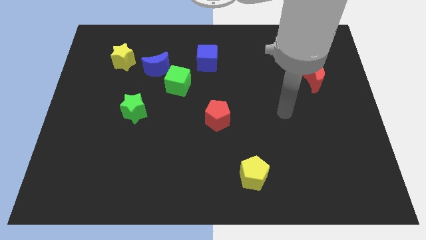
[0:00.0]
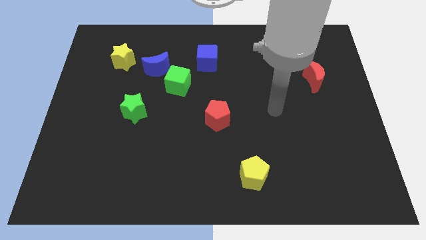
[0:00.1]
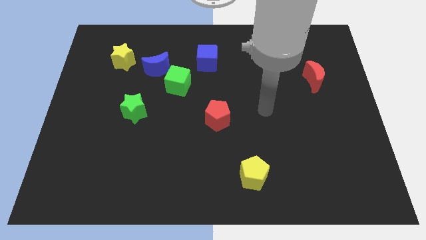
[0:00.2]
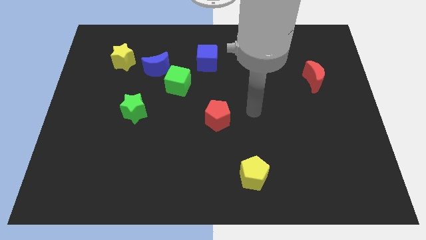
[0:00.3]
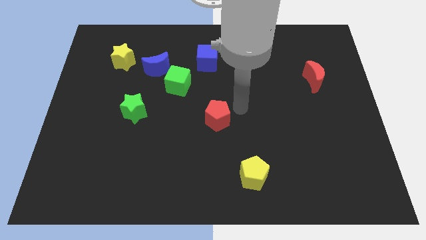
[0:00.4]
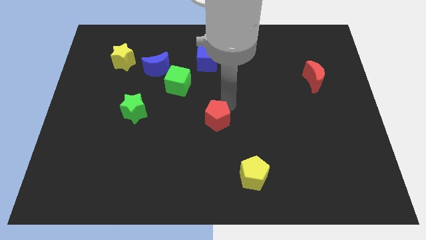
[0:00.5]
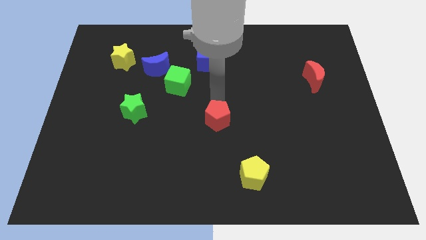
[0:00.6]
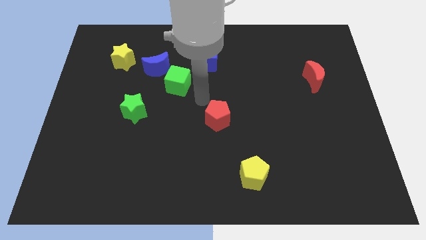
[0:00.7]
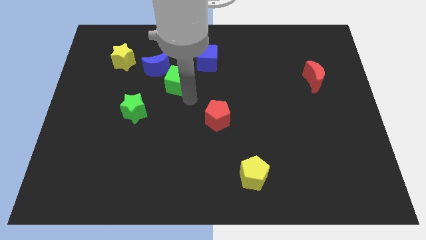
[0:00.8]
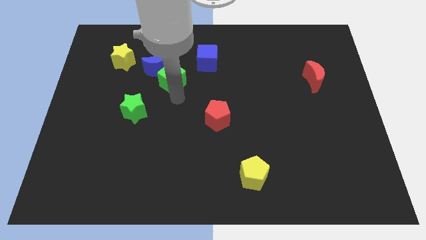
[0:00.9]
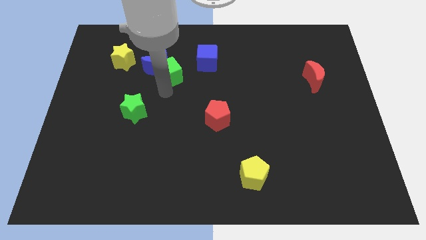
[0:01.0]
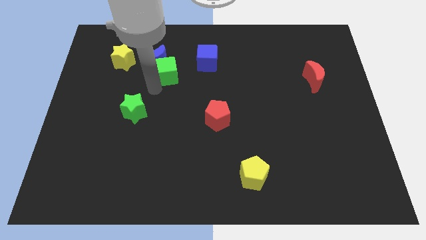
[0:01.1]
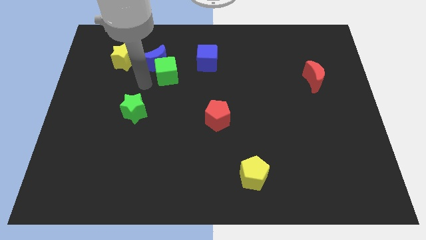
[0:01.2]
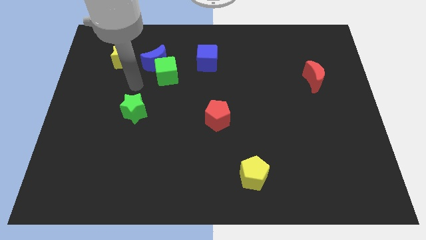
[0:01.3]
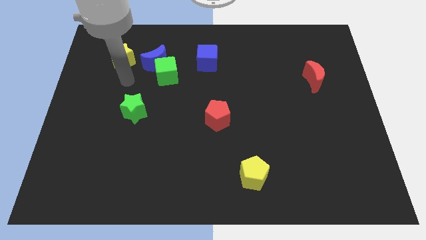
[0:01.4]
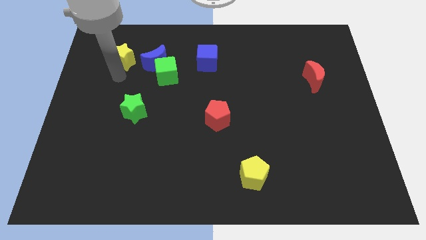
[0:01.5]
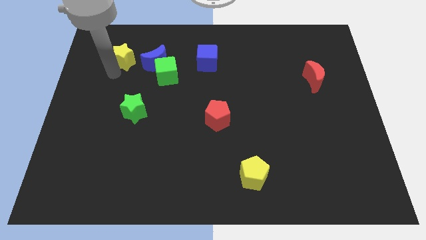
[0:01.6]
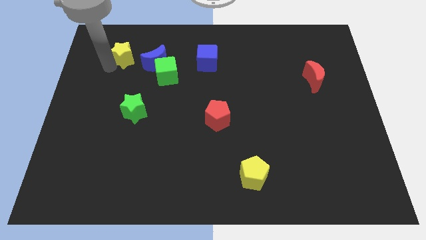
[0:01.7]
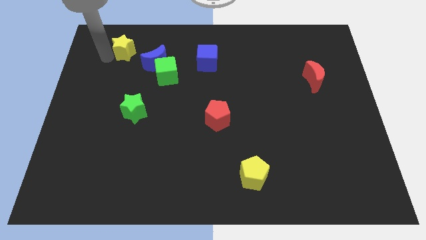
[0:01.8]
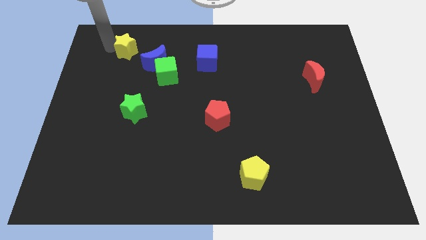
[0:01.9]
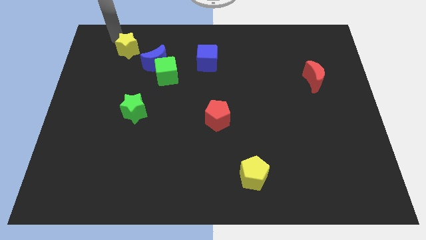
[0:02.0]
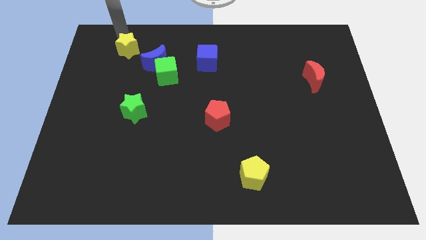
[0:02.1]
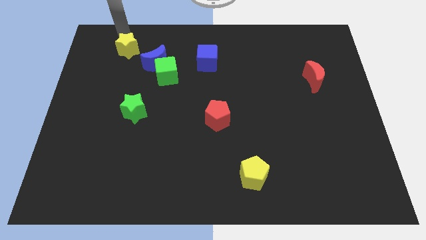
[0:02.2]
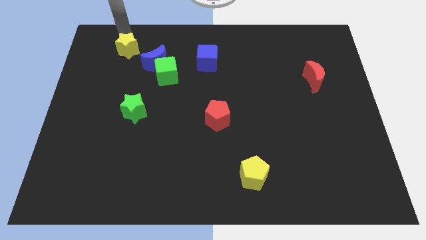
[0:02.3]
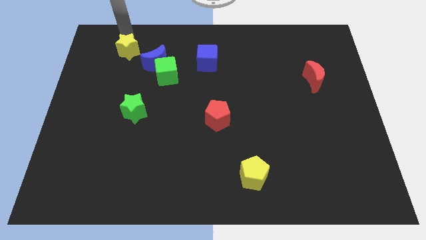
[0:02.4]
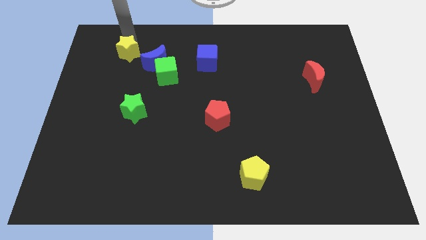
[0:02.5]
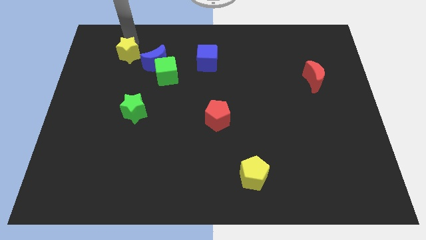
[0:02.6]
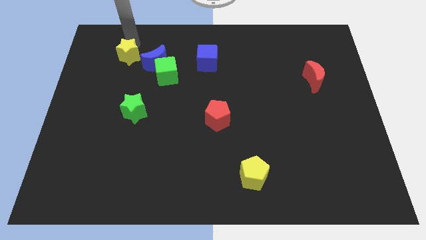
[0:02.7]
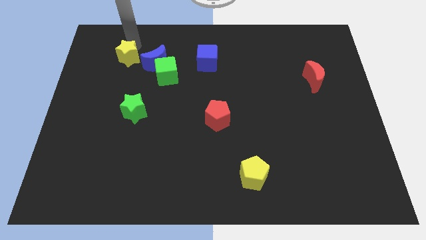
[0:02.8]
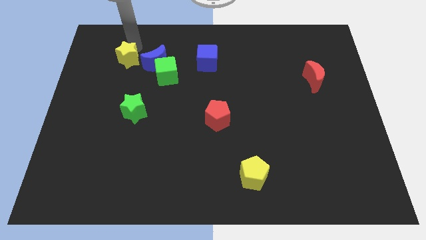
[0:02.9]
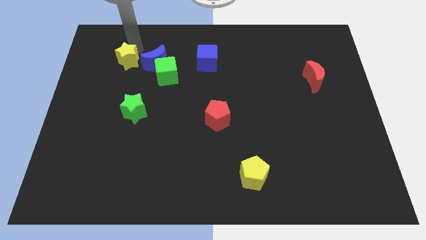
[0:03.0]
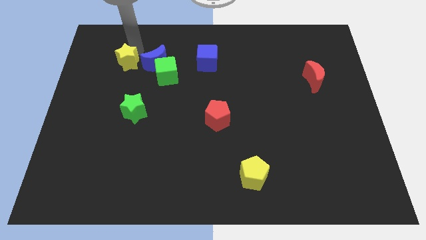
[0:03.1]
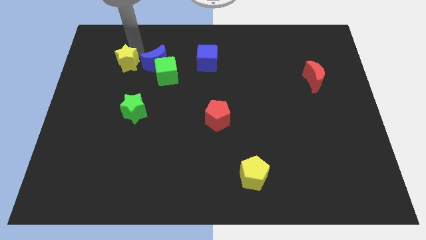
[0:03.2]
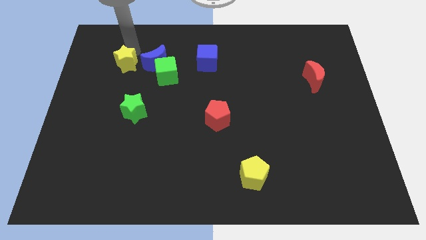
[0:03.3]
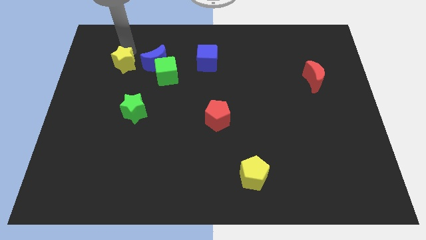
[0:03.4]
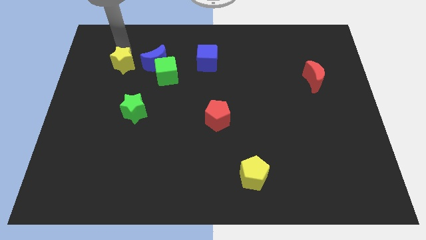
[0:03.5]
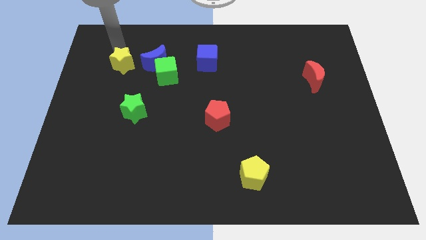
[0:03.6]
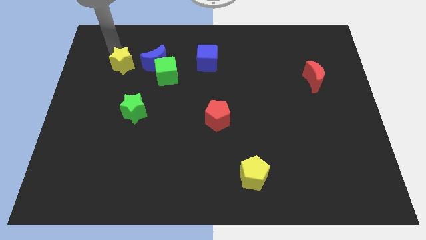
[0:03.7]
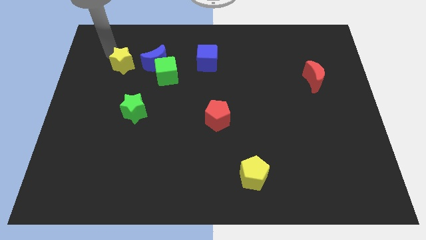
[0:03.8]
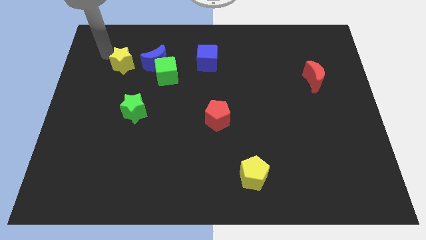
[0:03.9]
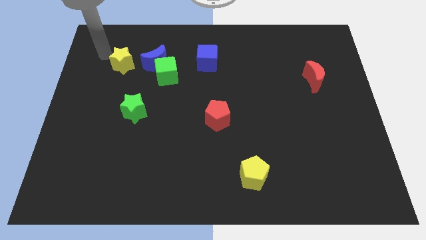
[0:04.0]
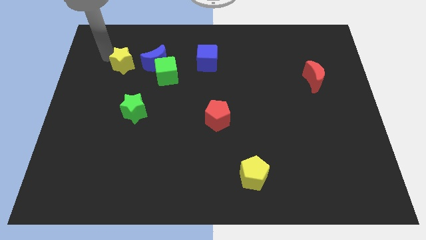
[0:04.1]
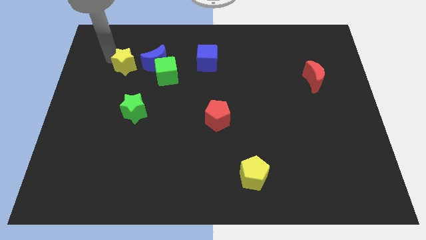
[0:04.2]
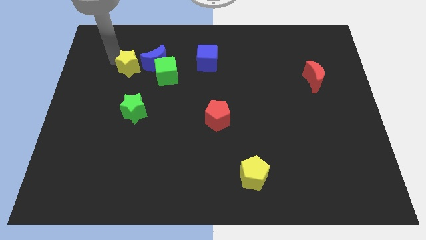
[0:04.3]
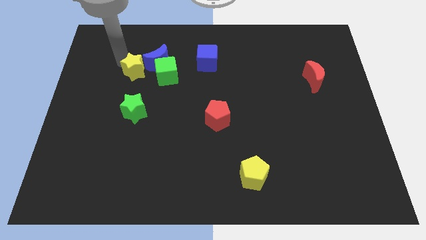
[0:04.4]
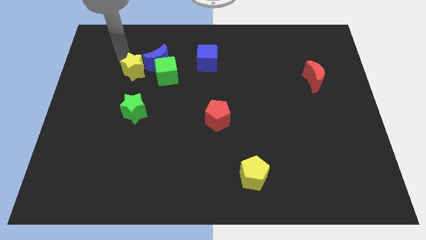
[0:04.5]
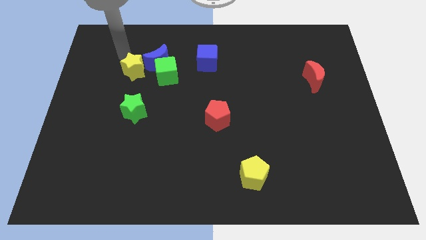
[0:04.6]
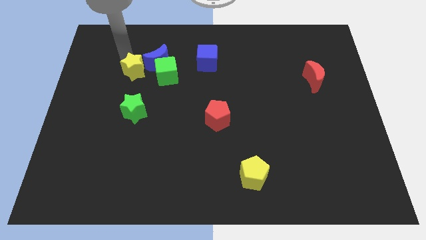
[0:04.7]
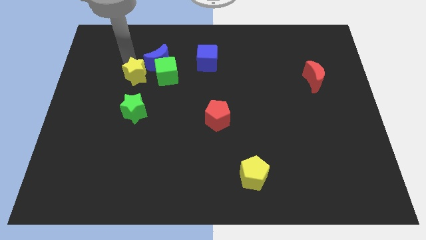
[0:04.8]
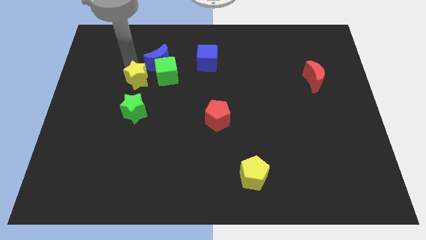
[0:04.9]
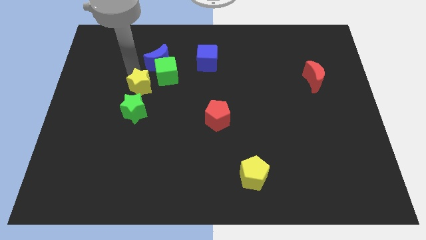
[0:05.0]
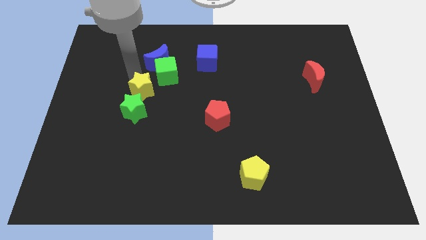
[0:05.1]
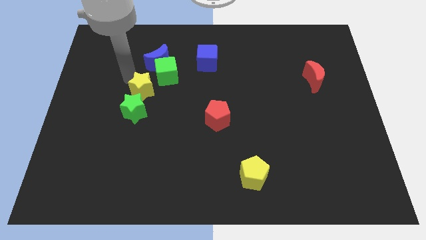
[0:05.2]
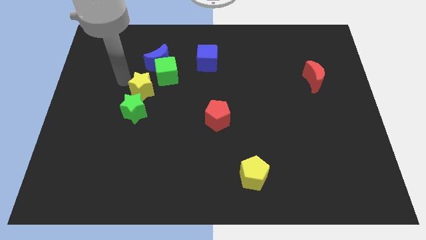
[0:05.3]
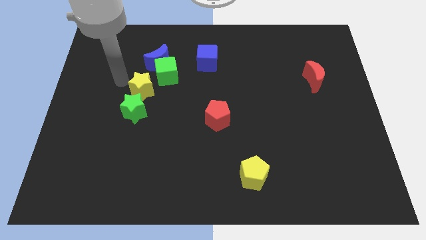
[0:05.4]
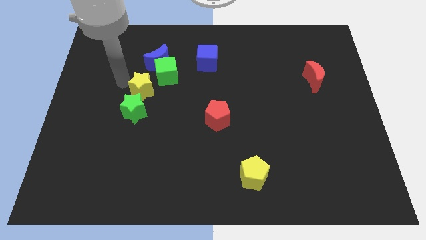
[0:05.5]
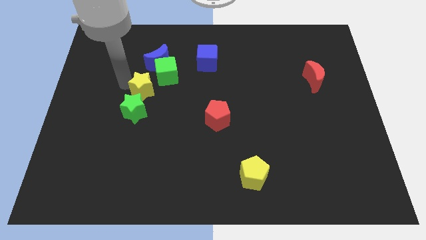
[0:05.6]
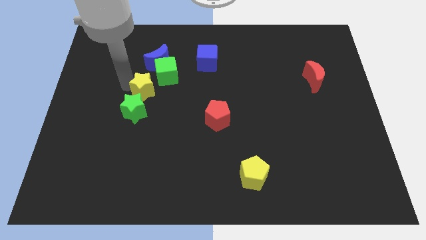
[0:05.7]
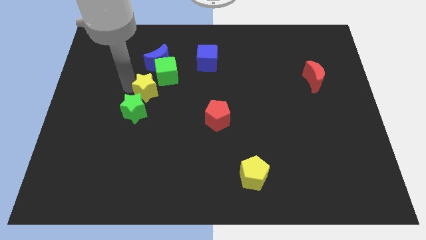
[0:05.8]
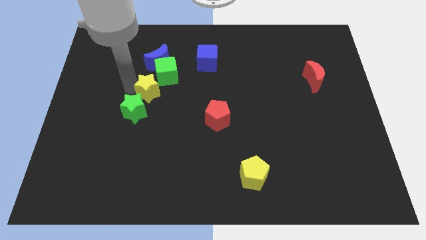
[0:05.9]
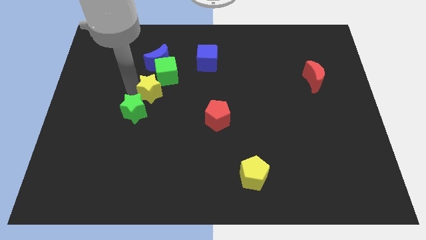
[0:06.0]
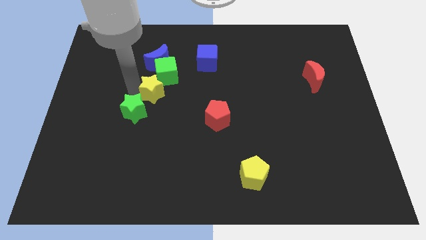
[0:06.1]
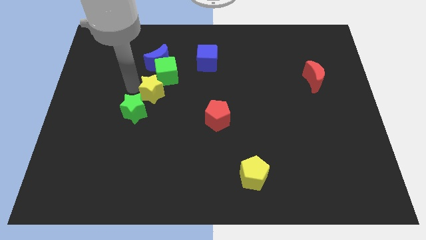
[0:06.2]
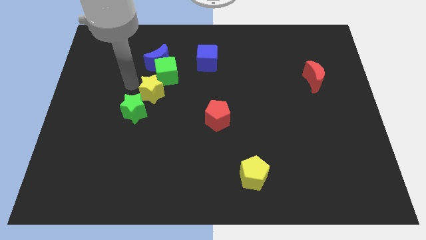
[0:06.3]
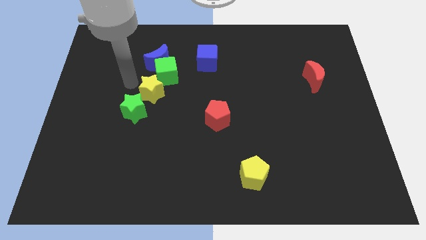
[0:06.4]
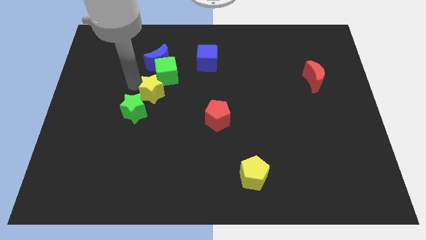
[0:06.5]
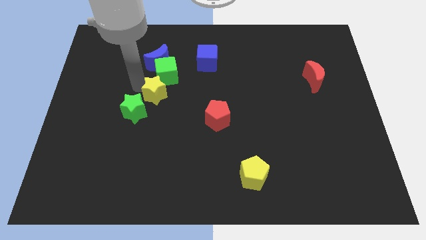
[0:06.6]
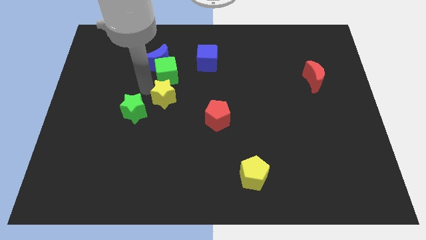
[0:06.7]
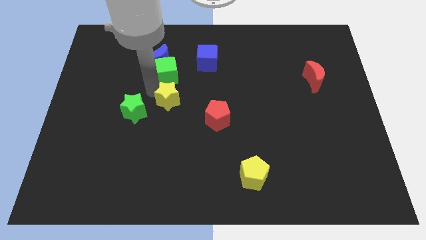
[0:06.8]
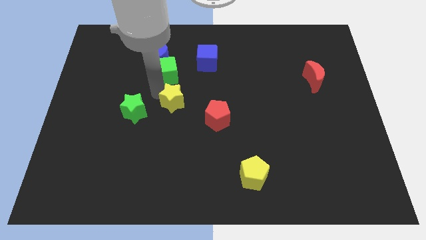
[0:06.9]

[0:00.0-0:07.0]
push the yellow star down and right diagonally

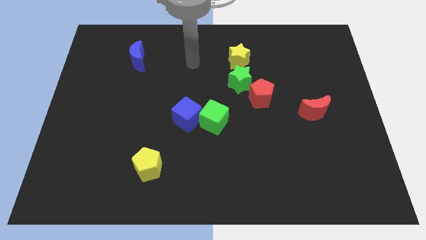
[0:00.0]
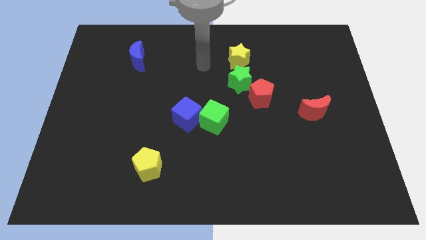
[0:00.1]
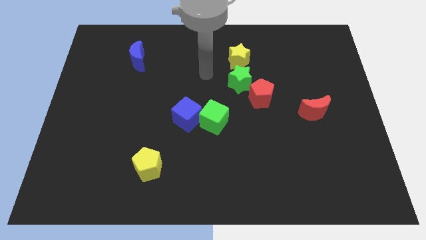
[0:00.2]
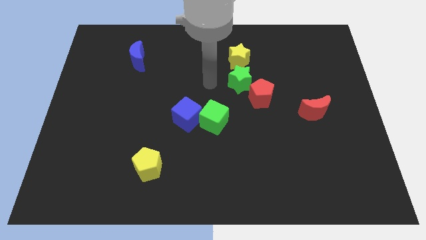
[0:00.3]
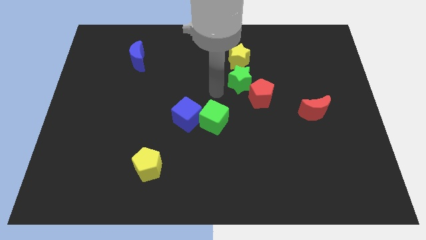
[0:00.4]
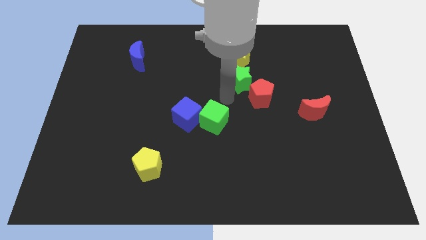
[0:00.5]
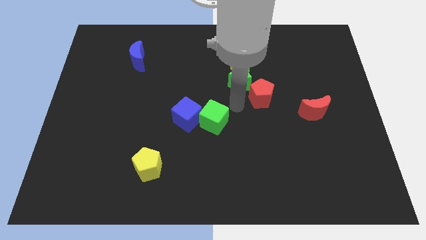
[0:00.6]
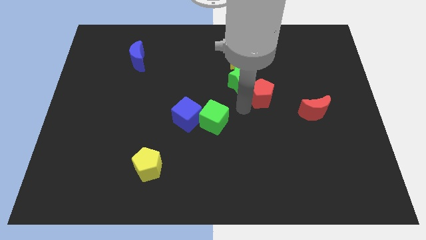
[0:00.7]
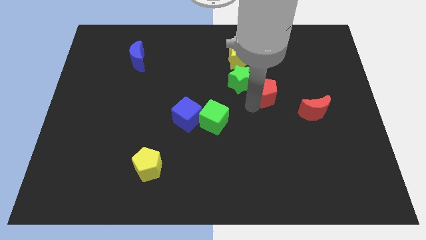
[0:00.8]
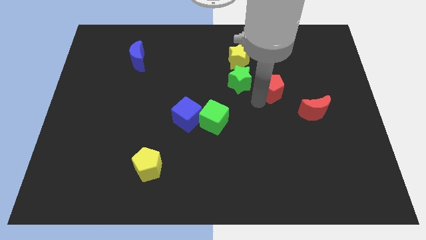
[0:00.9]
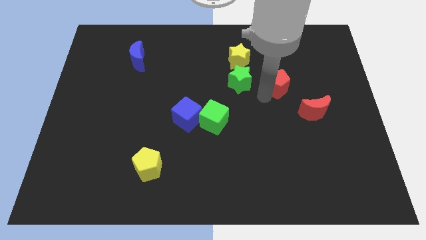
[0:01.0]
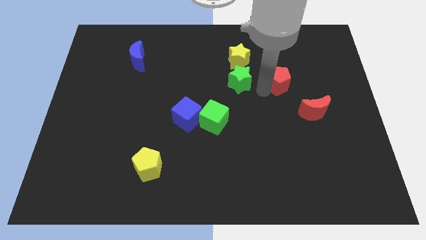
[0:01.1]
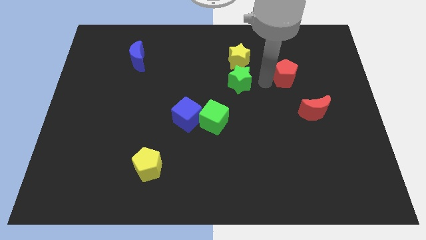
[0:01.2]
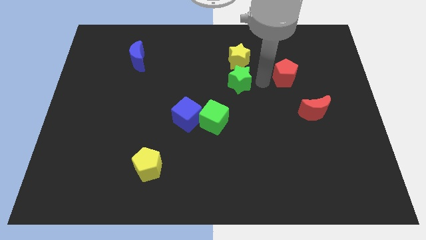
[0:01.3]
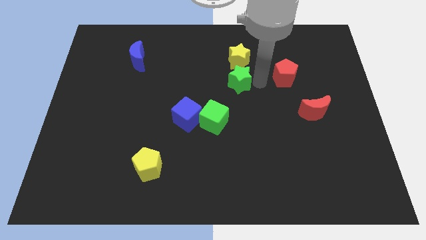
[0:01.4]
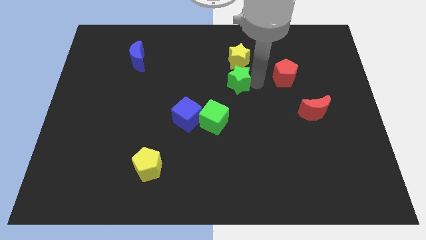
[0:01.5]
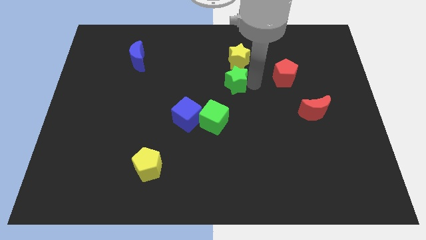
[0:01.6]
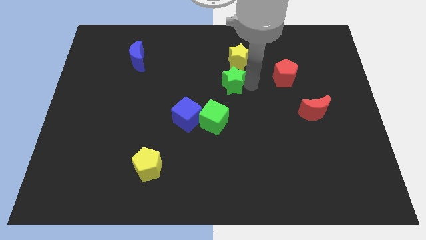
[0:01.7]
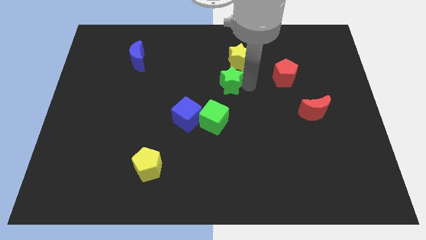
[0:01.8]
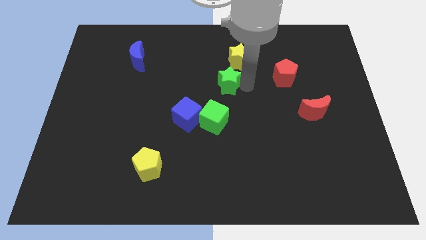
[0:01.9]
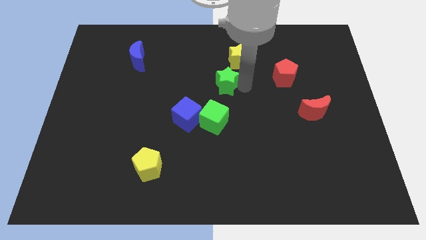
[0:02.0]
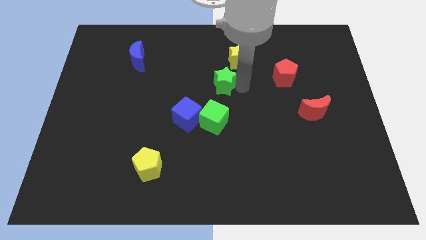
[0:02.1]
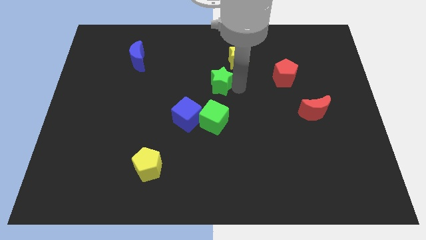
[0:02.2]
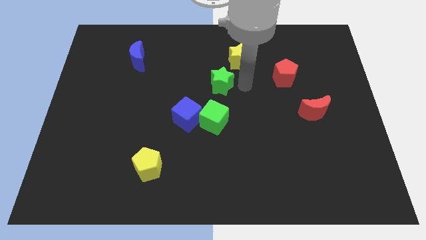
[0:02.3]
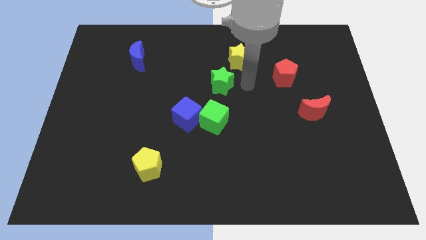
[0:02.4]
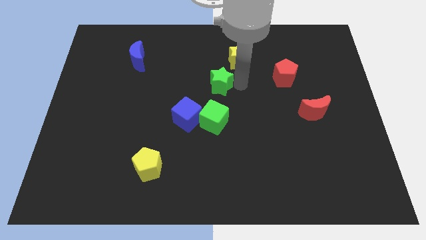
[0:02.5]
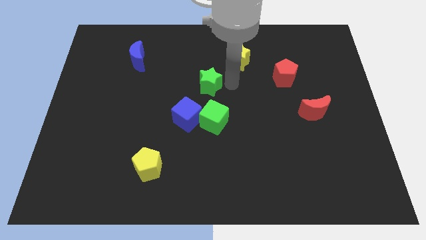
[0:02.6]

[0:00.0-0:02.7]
move the green star to the left a little bit
